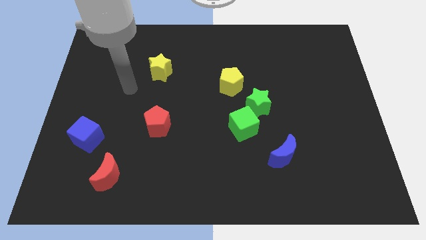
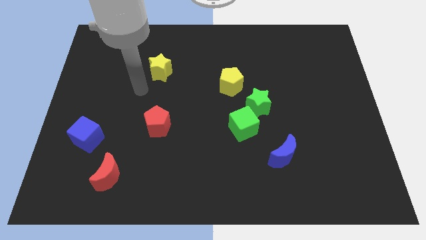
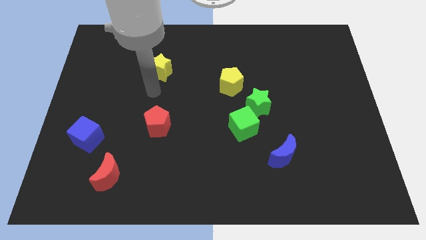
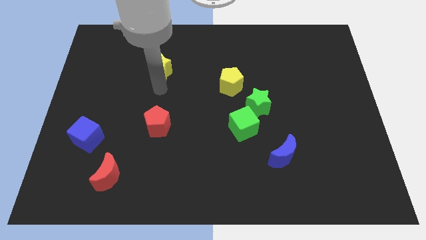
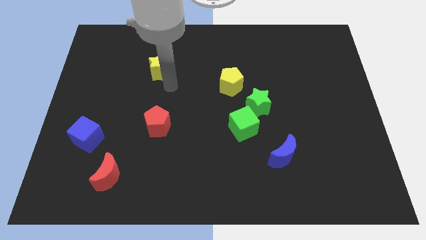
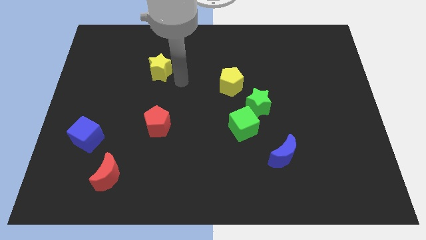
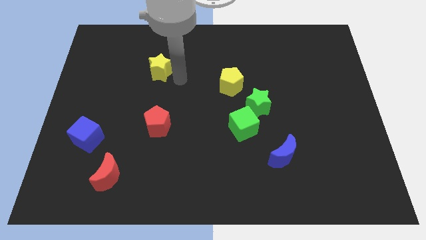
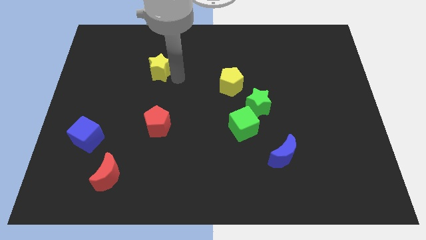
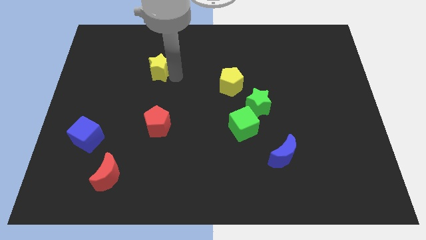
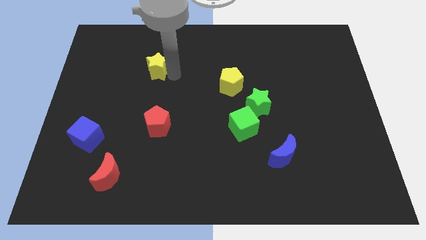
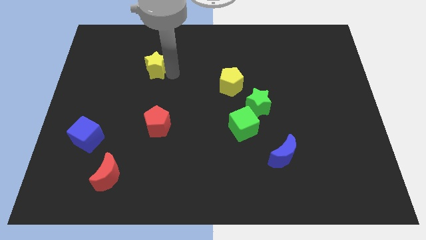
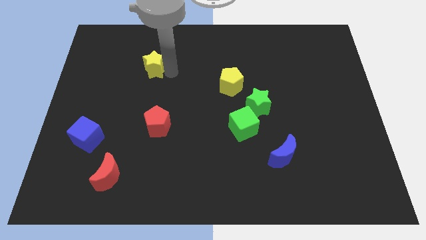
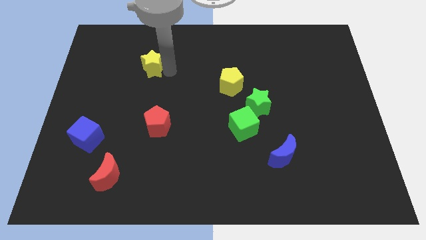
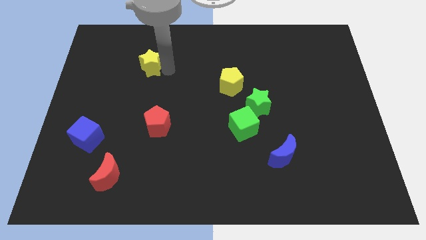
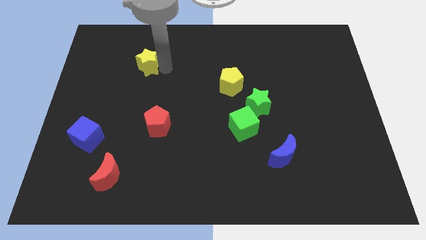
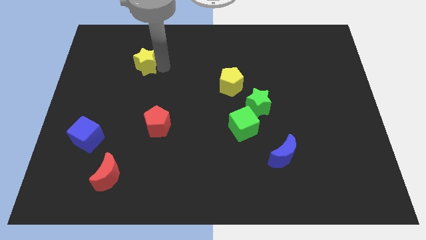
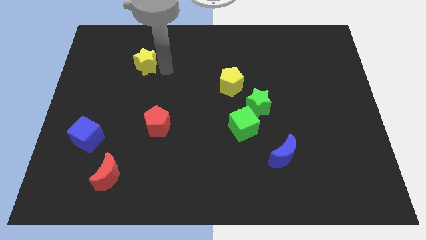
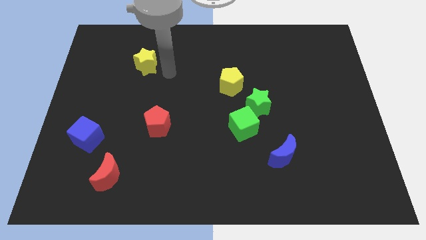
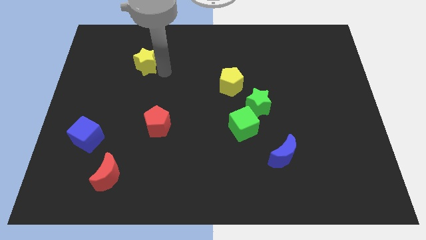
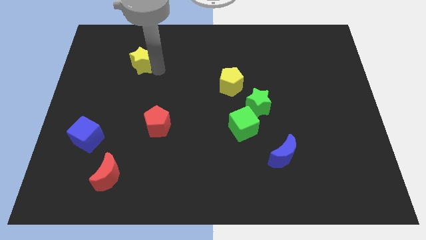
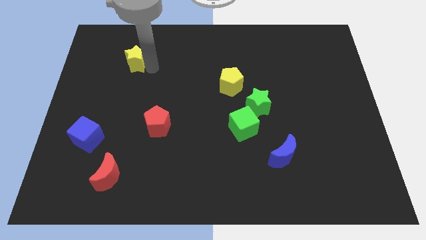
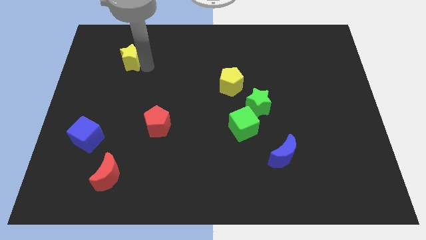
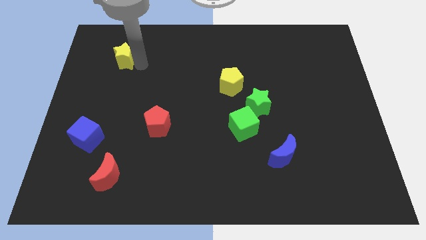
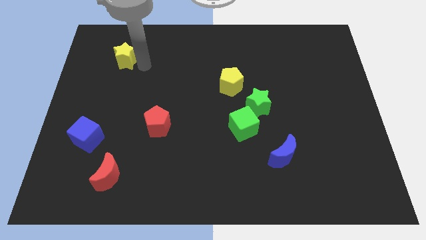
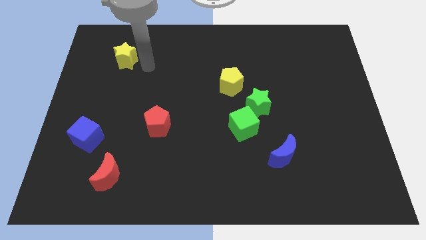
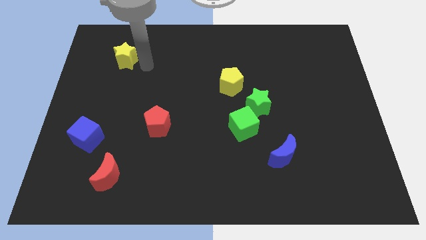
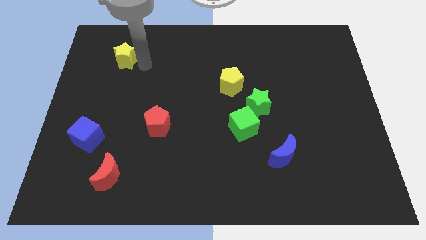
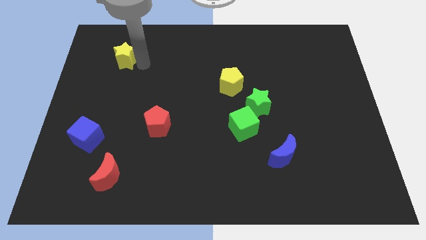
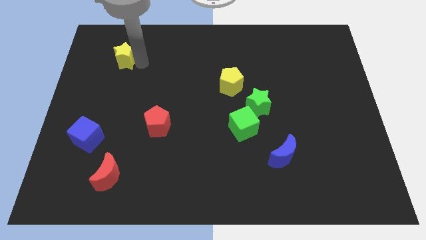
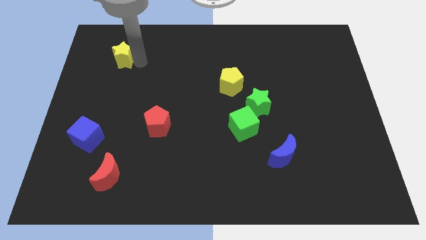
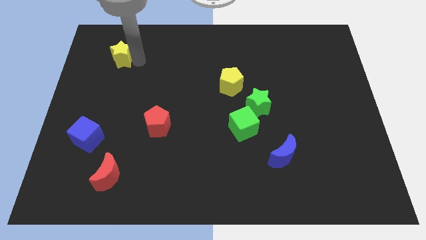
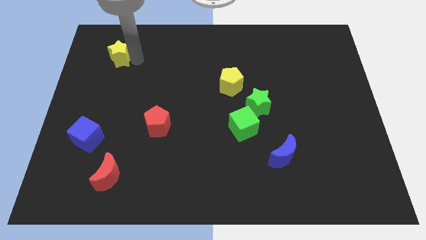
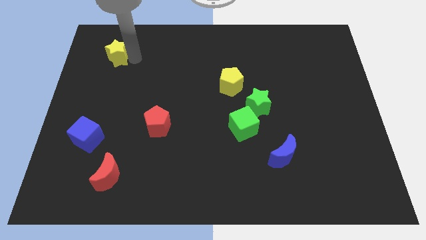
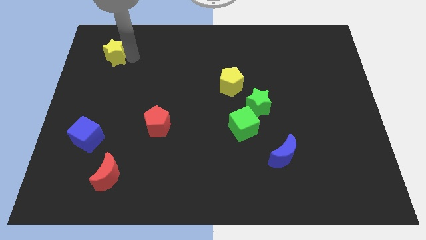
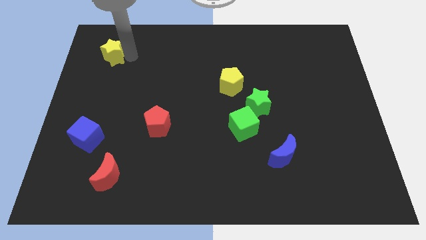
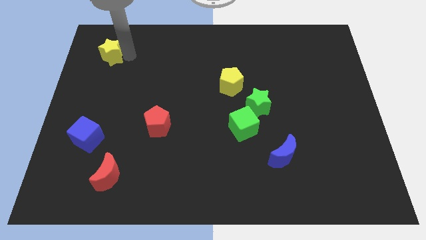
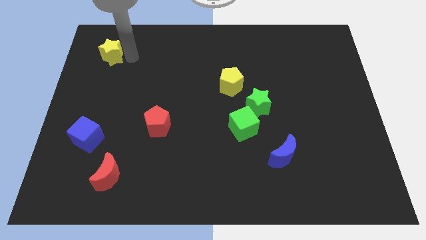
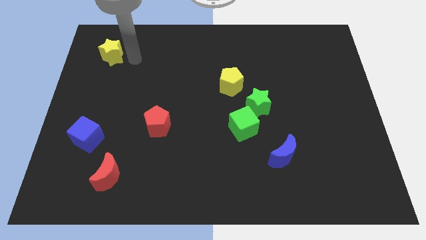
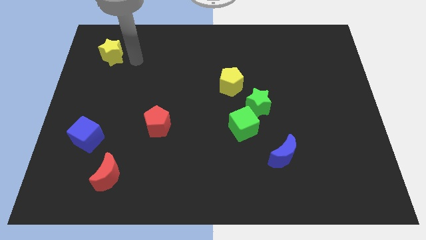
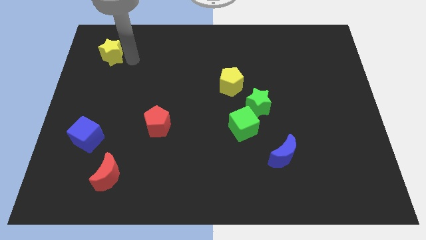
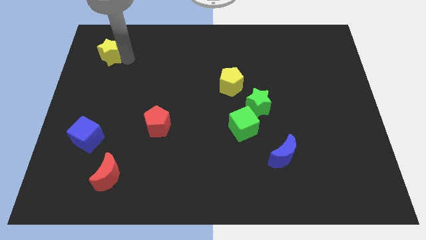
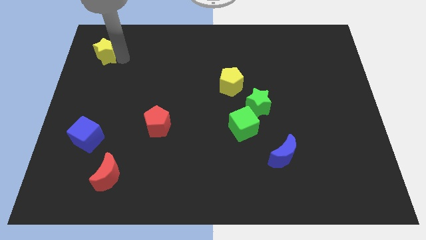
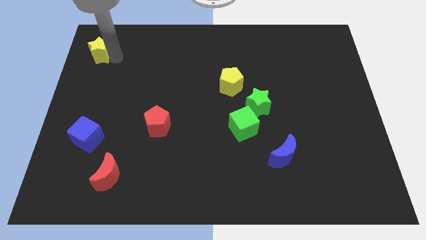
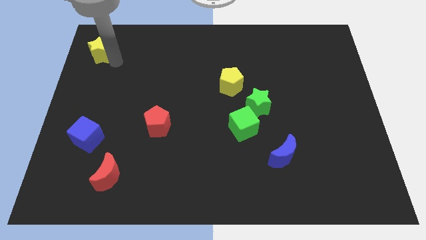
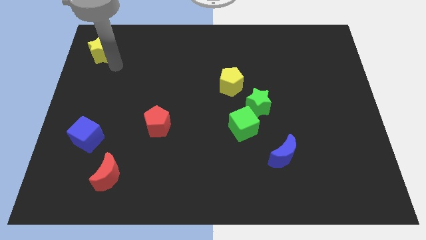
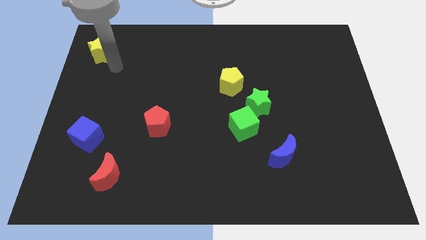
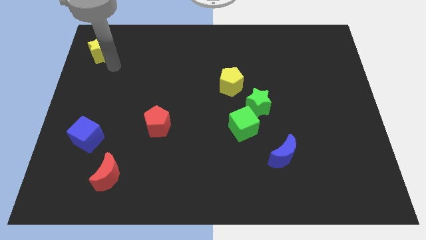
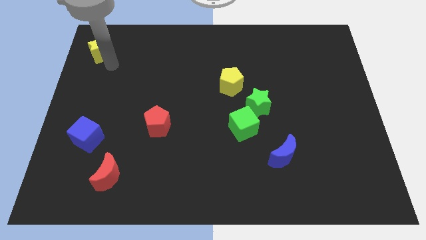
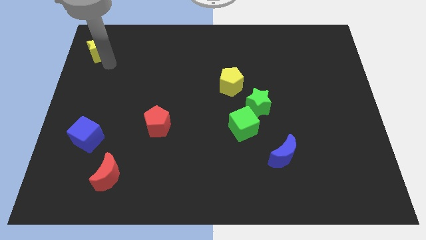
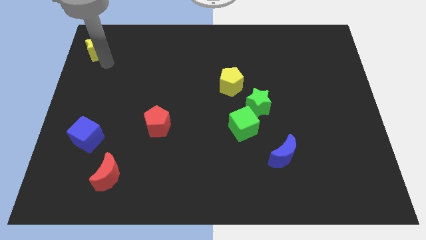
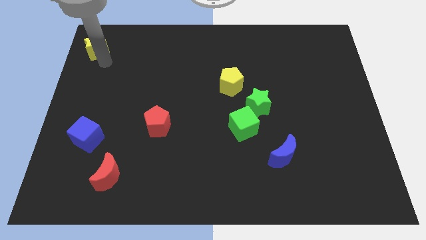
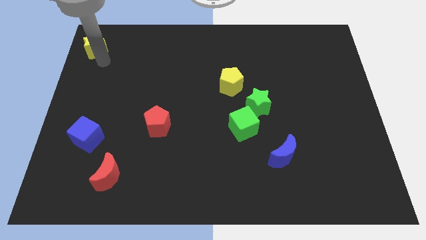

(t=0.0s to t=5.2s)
move the yellow star to the top left corner

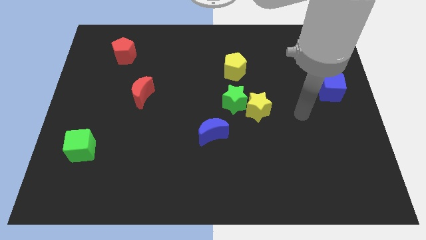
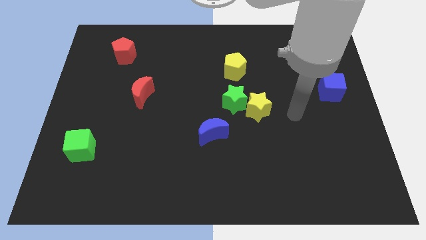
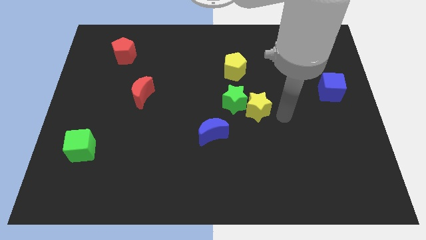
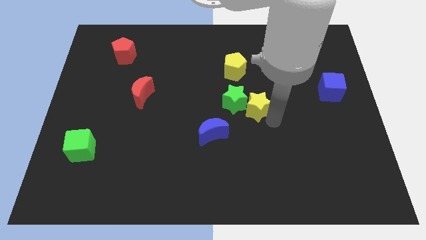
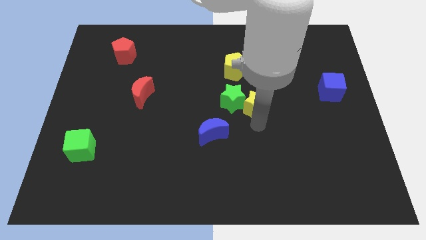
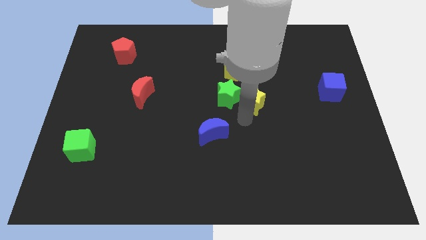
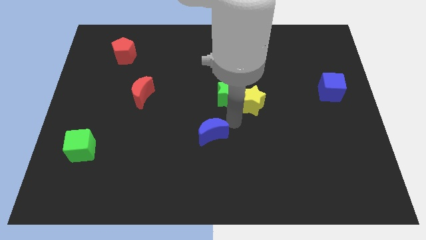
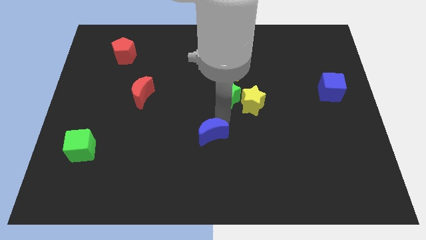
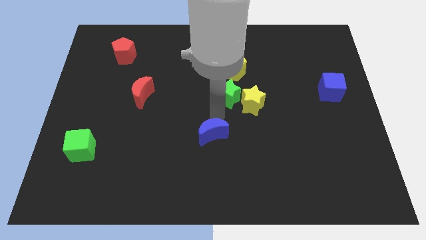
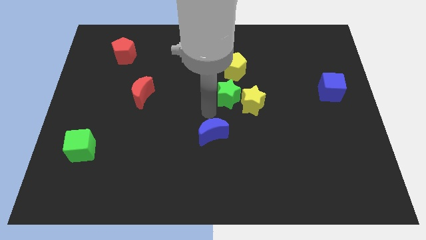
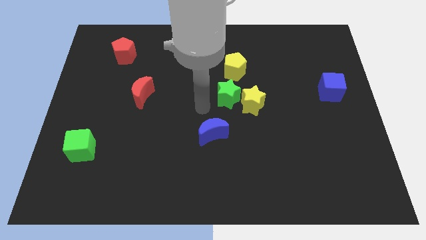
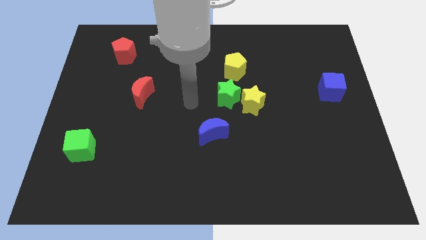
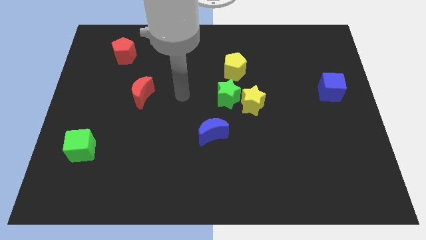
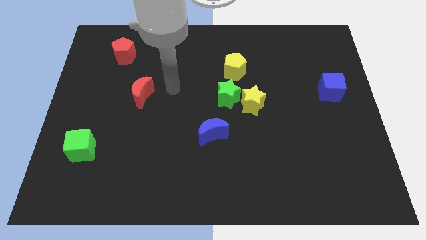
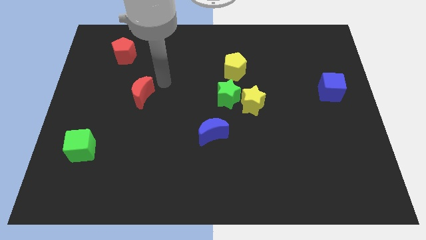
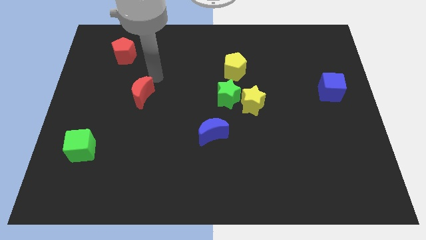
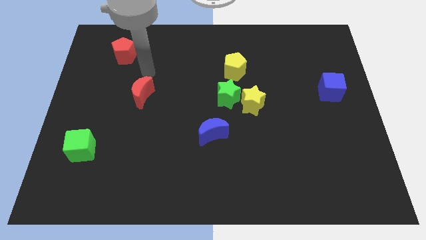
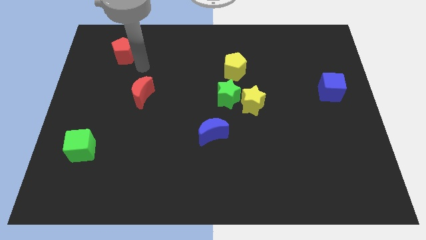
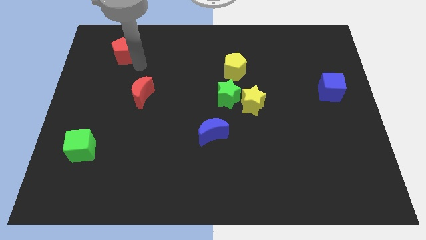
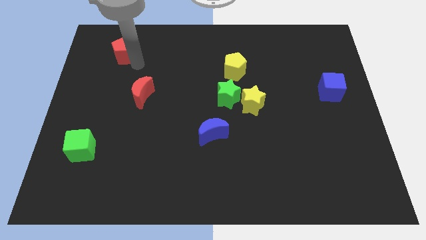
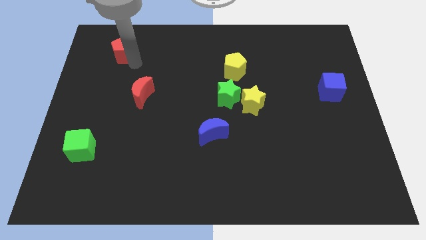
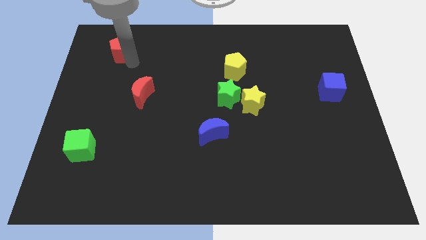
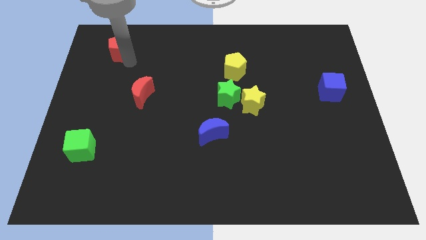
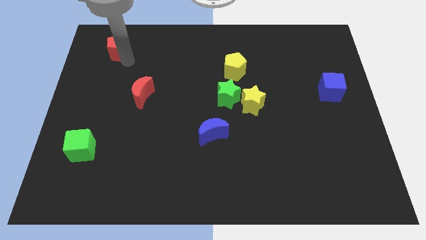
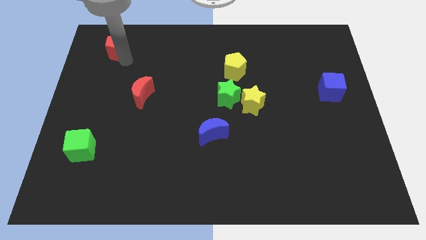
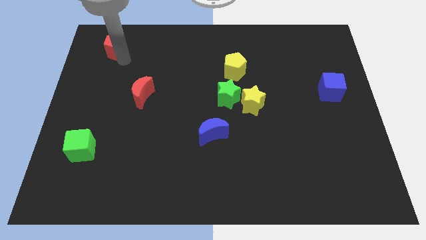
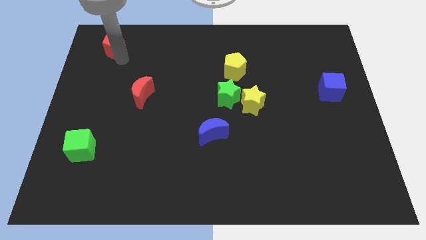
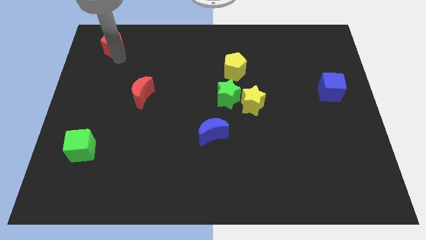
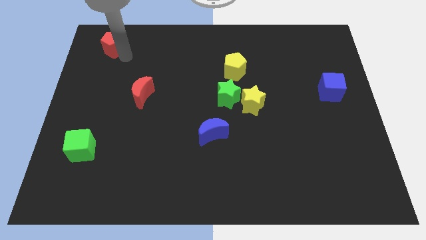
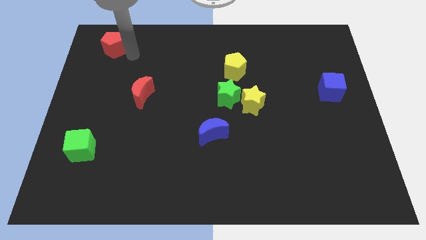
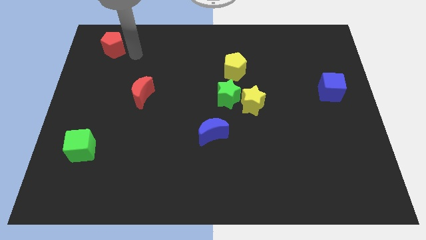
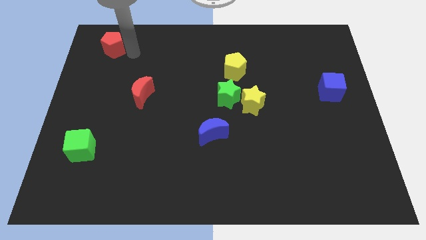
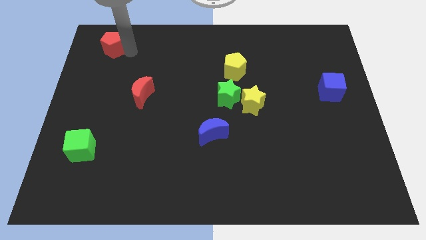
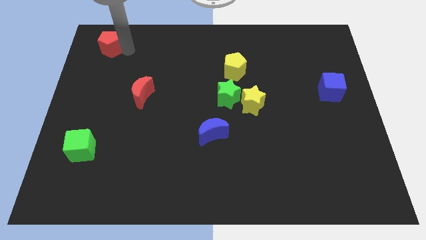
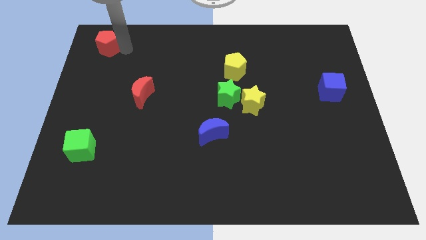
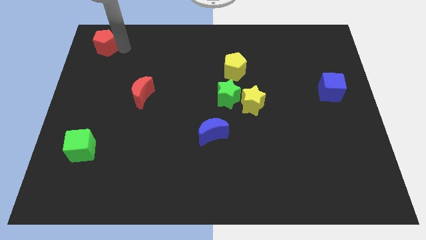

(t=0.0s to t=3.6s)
slide the red pentagon to the top left of the board
